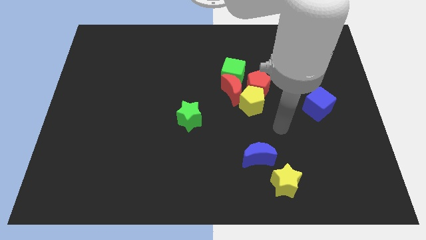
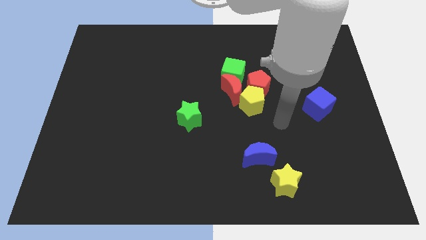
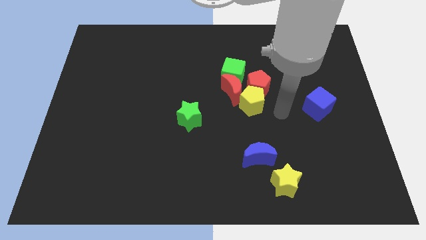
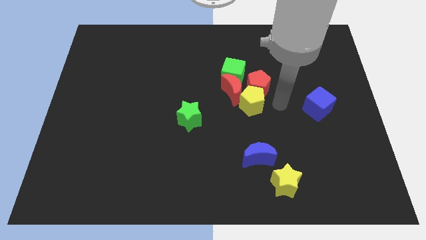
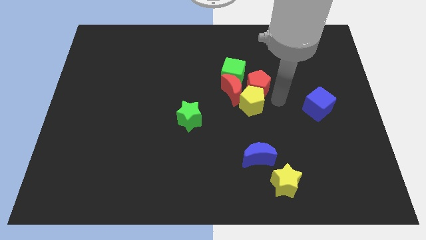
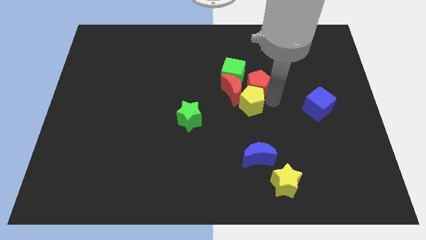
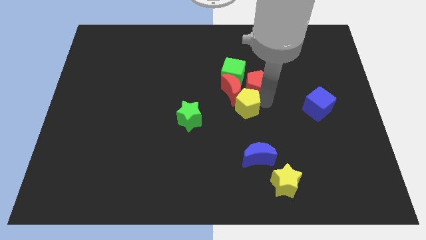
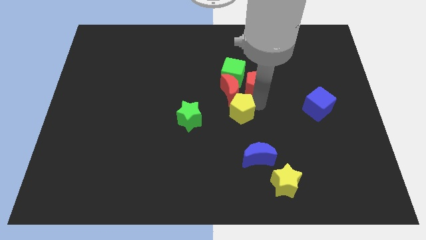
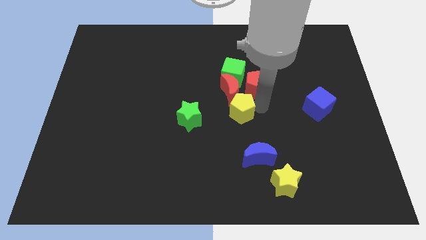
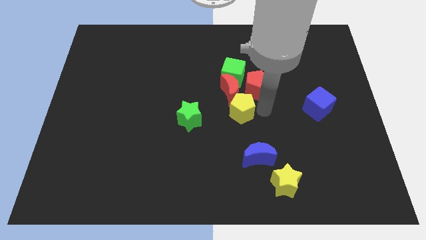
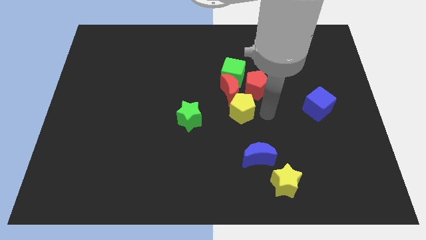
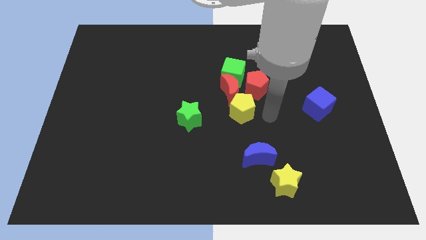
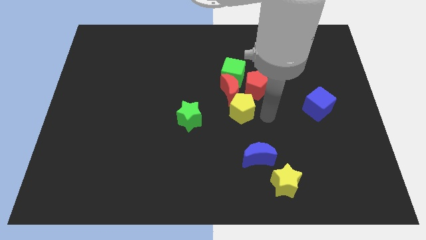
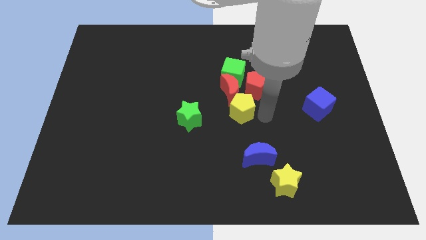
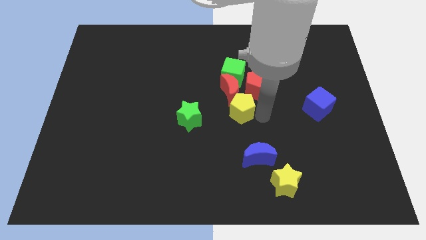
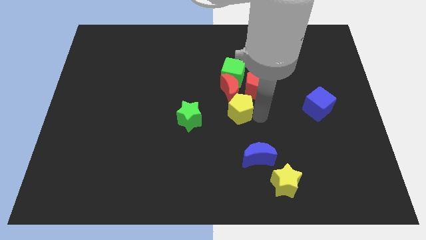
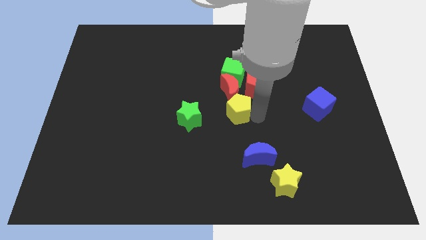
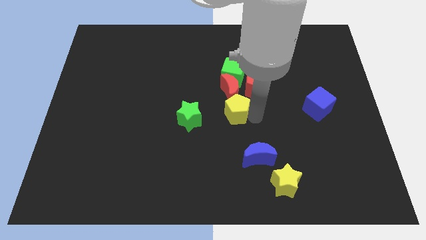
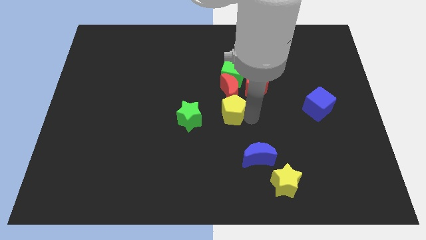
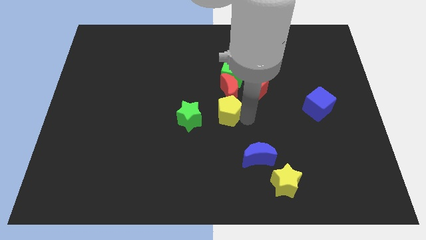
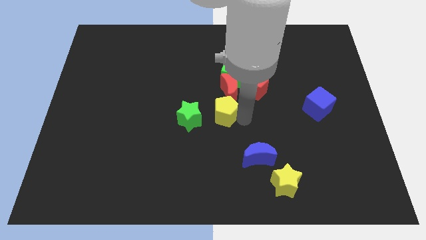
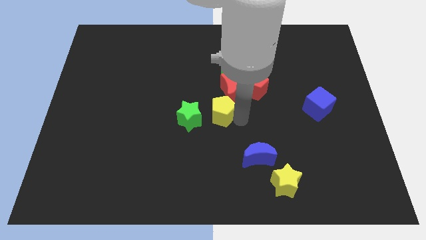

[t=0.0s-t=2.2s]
slide the yellow pentagon a little left

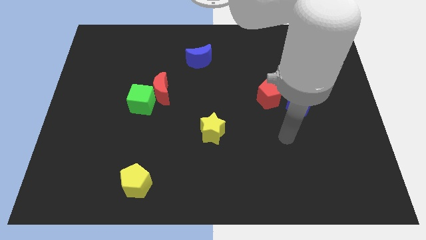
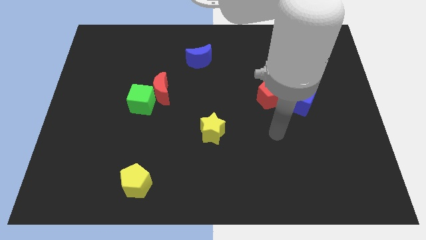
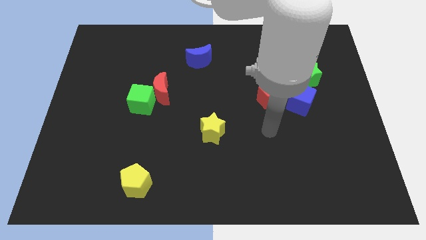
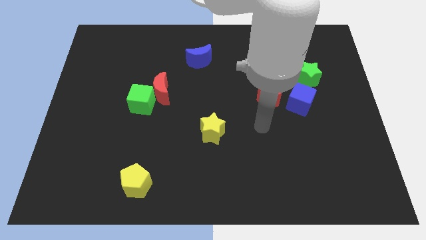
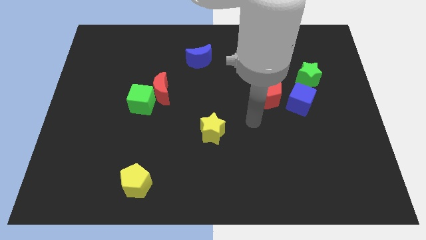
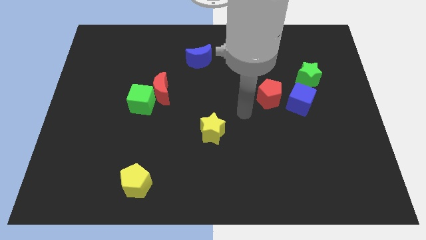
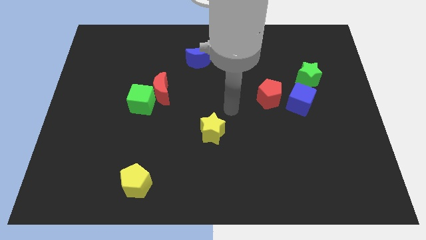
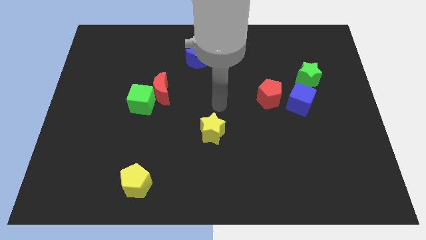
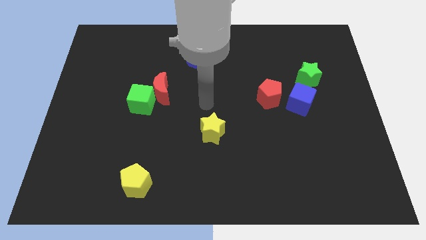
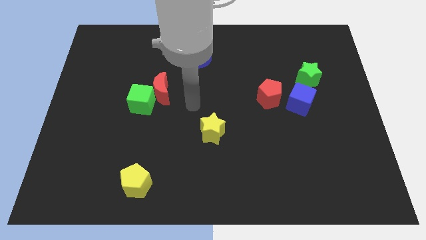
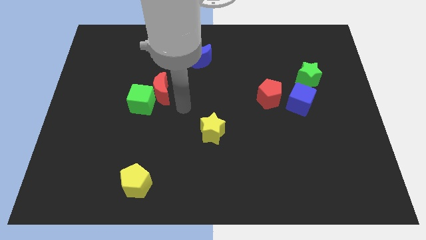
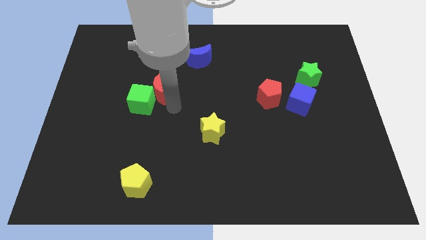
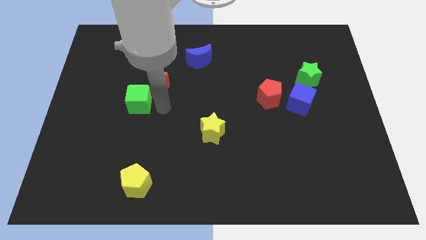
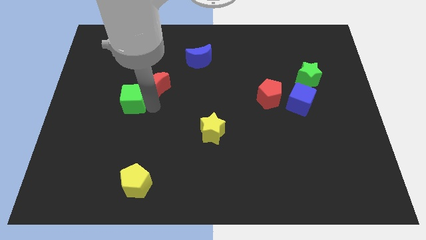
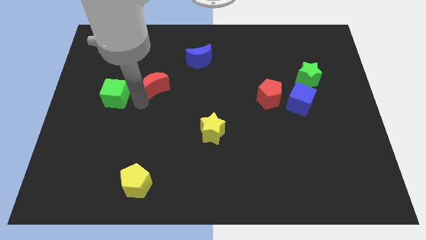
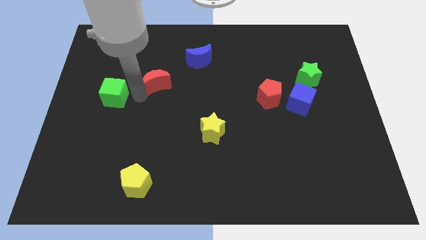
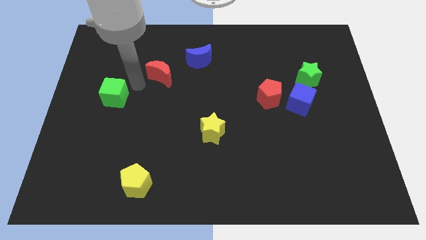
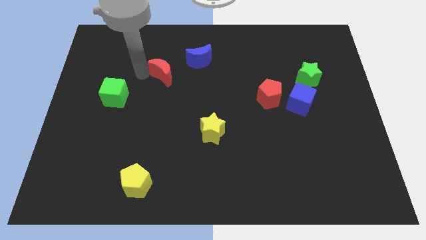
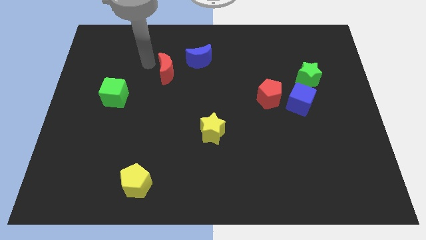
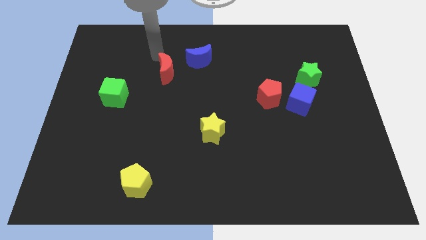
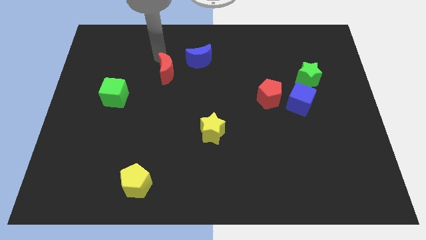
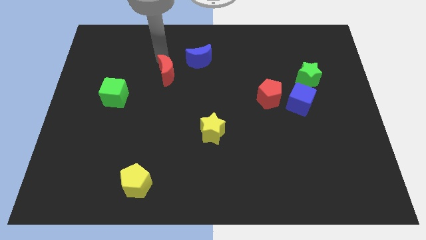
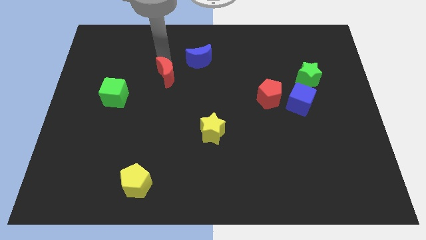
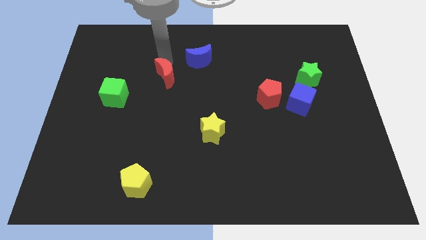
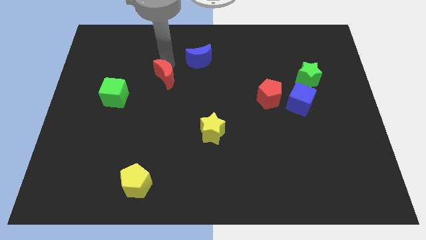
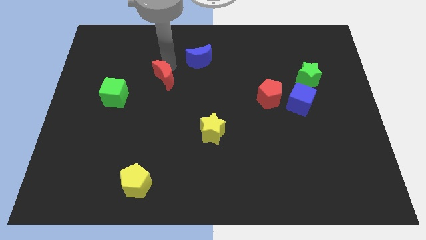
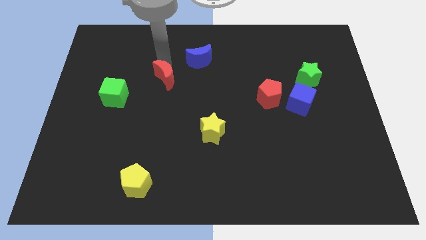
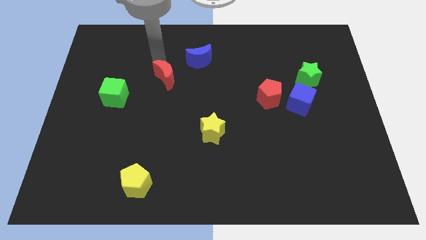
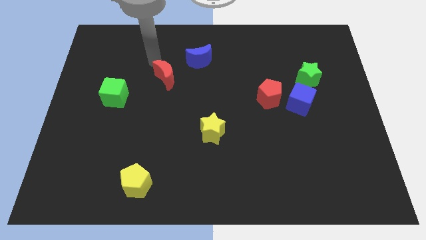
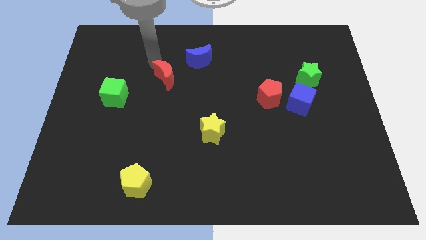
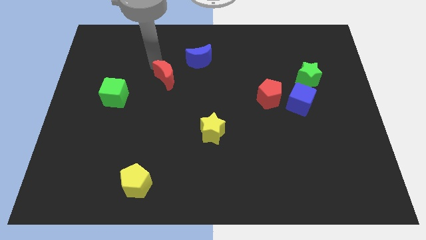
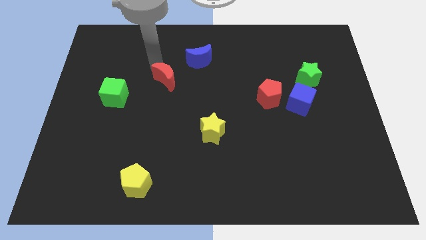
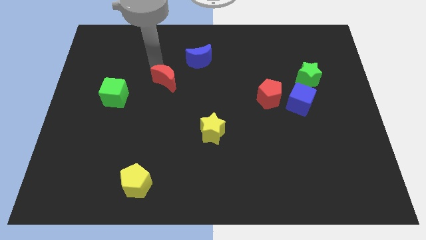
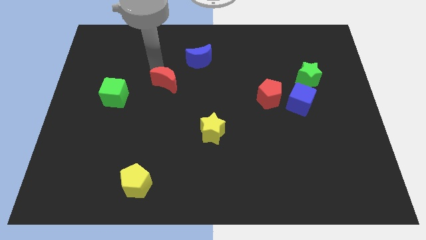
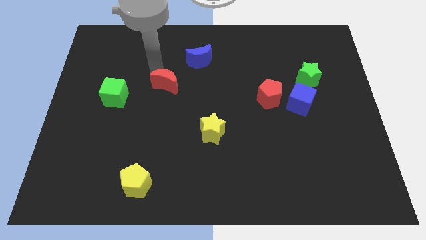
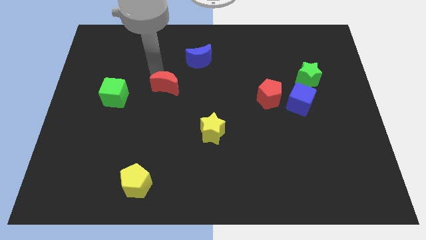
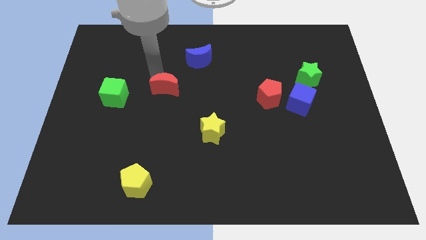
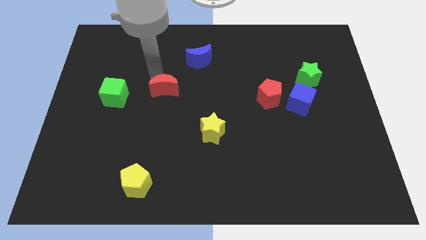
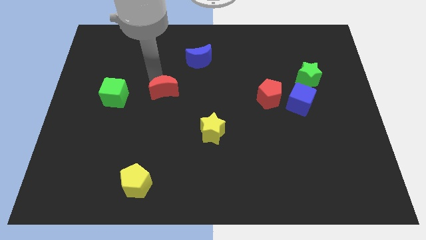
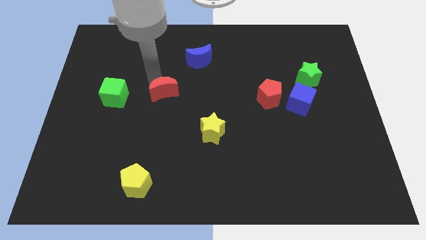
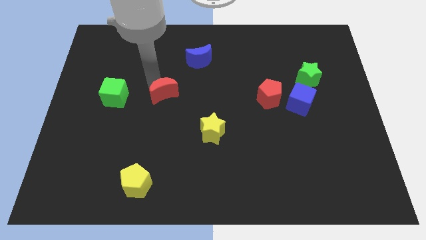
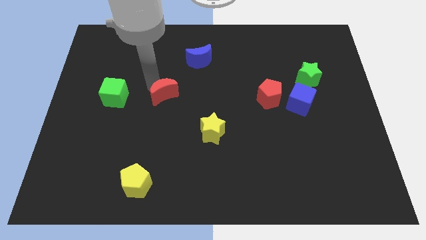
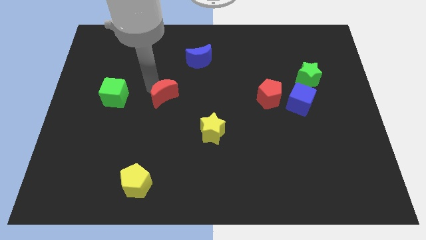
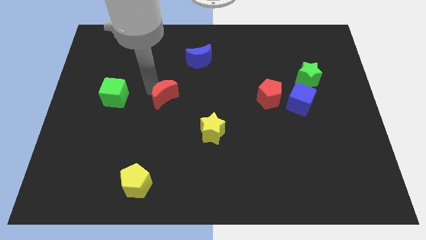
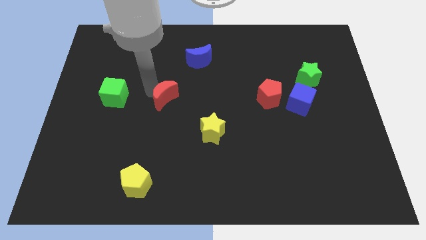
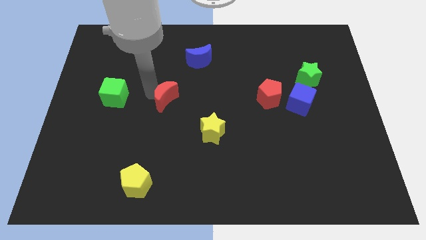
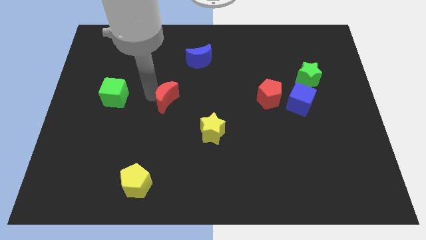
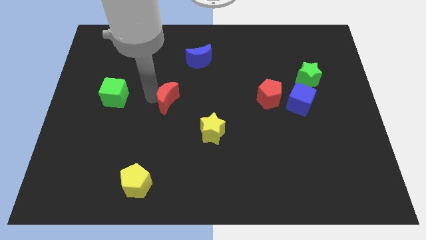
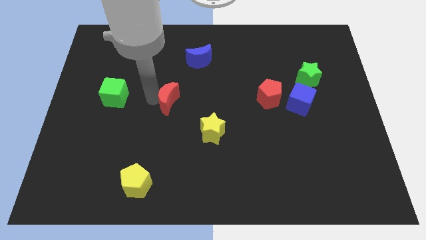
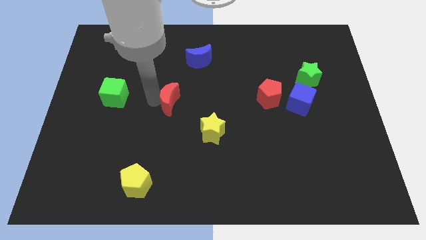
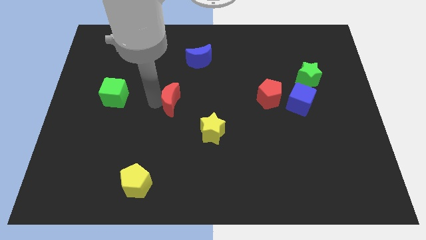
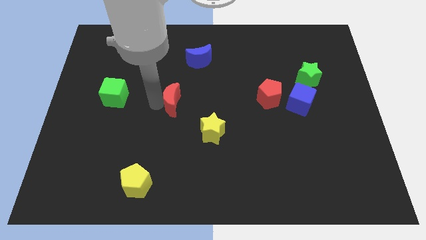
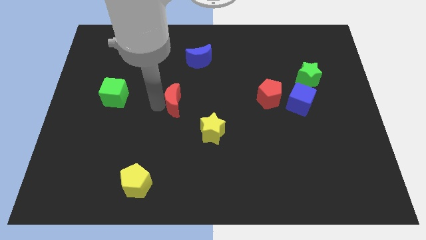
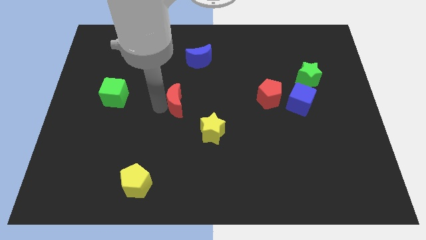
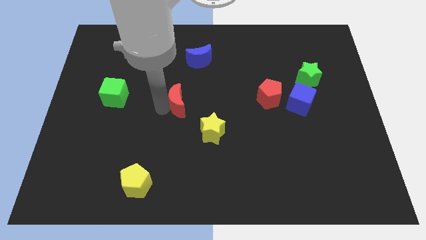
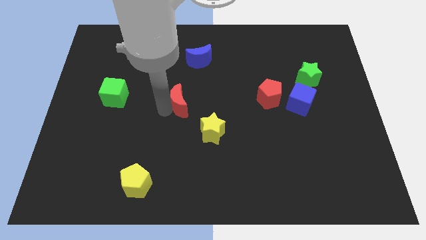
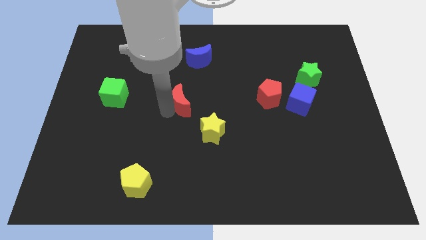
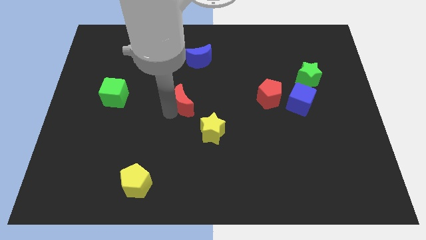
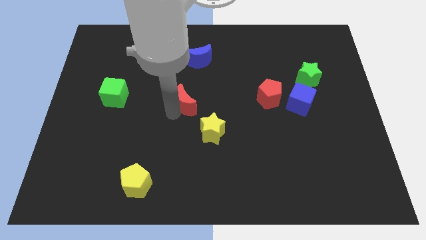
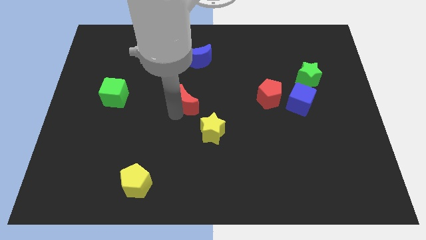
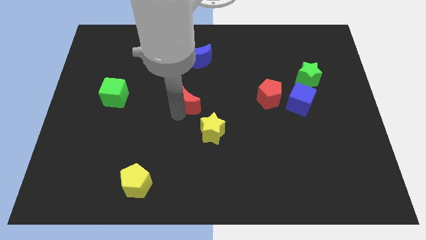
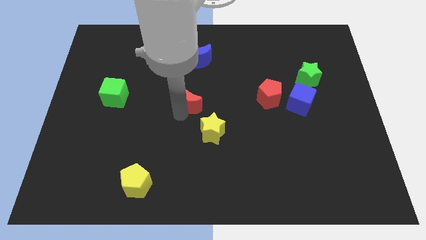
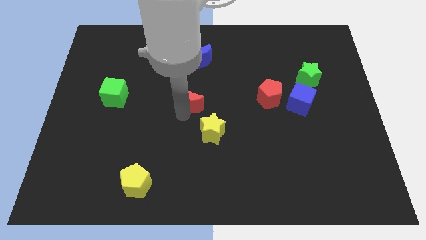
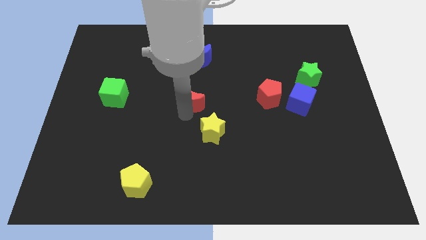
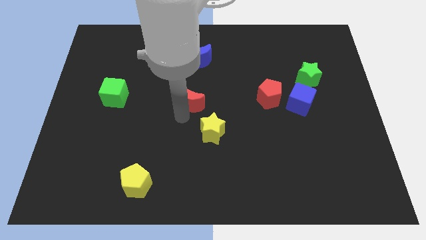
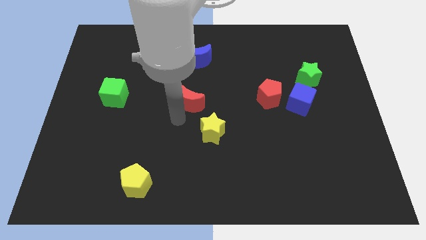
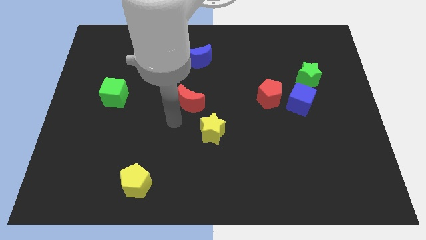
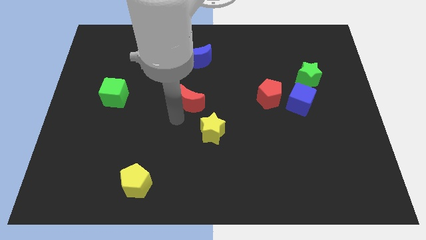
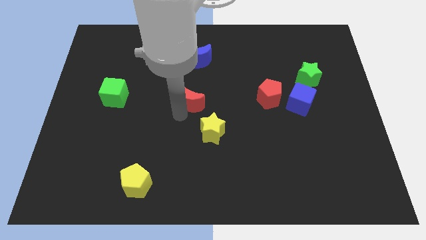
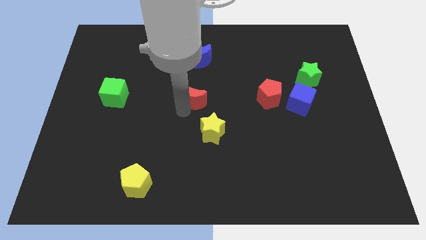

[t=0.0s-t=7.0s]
move the red moon slightly to the right
